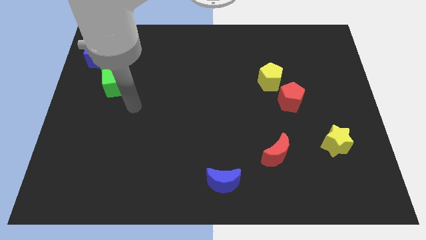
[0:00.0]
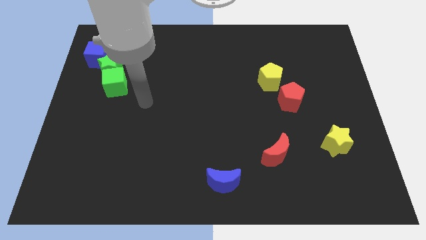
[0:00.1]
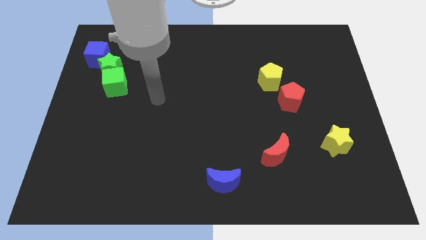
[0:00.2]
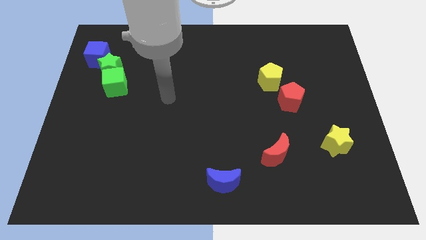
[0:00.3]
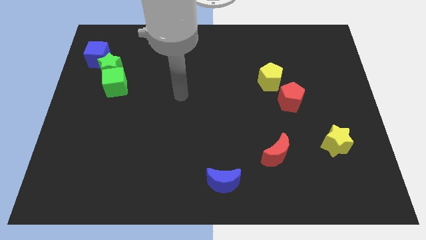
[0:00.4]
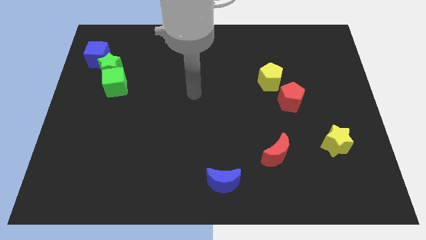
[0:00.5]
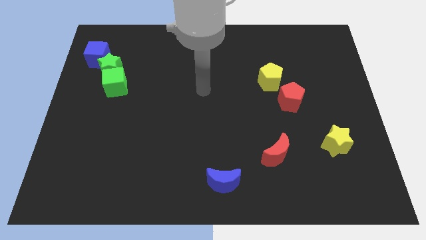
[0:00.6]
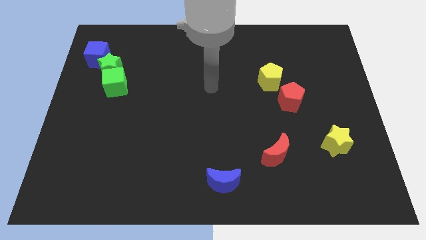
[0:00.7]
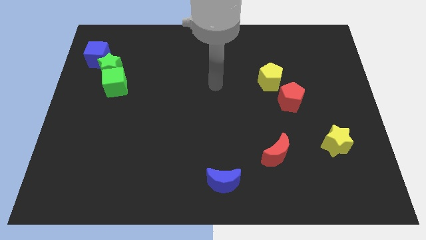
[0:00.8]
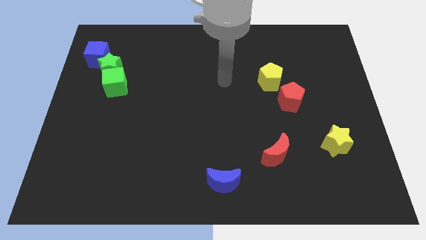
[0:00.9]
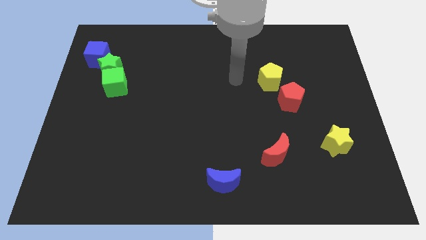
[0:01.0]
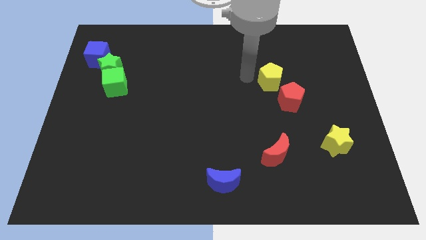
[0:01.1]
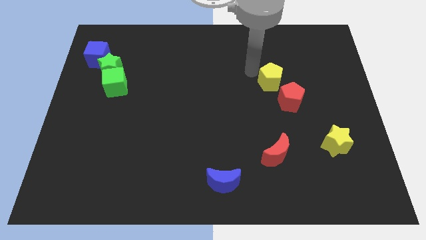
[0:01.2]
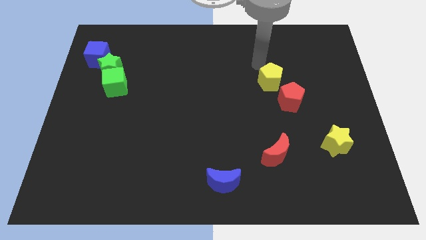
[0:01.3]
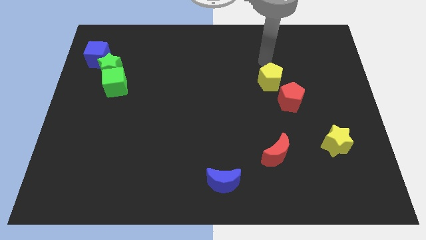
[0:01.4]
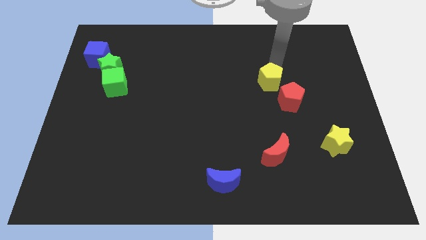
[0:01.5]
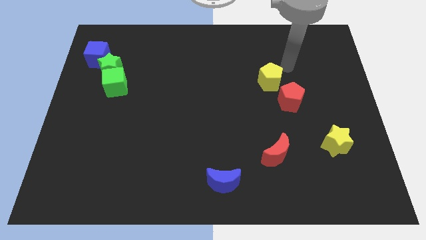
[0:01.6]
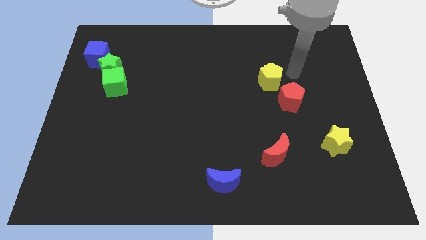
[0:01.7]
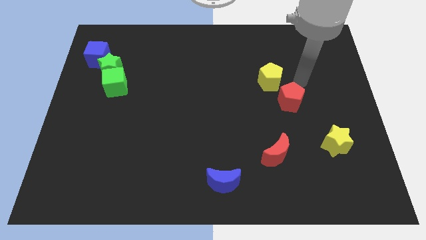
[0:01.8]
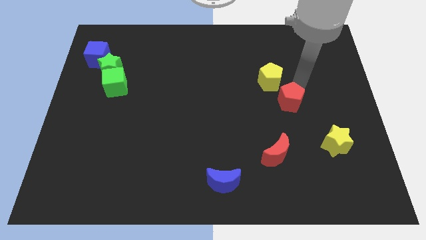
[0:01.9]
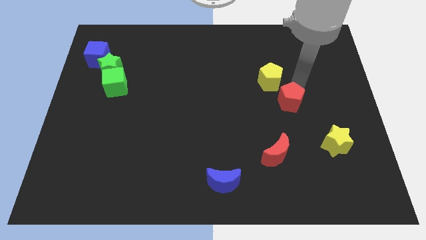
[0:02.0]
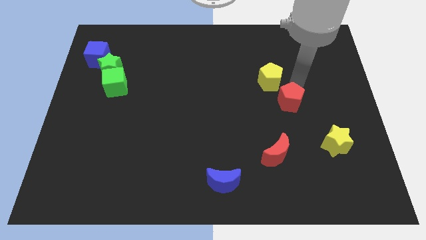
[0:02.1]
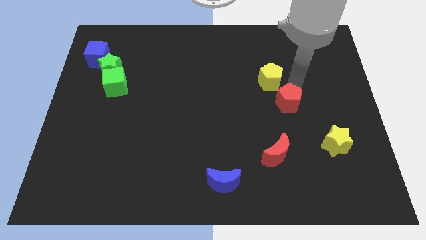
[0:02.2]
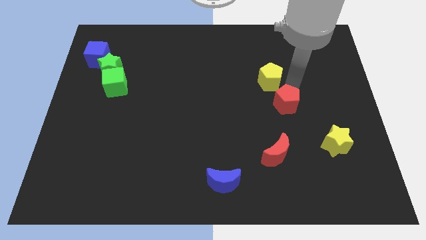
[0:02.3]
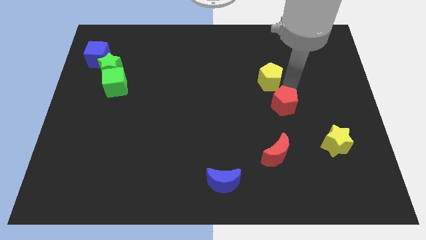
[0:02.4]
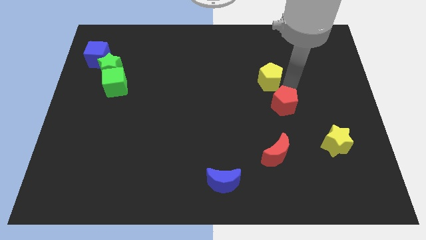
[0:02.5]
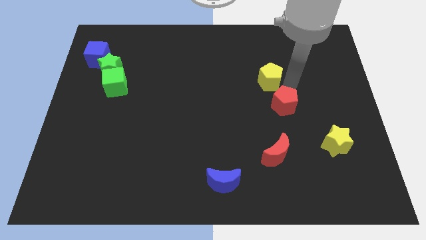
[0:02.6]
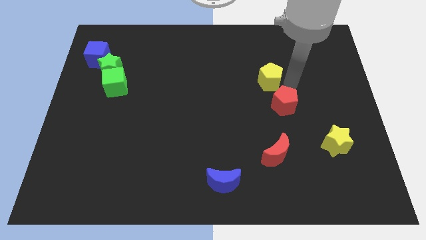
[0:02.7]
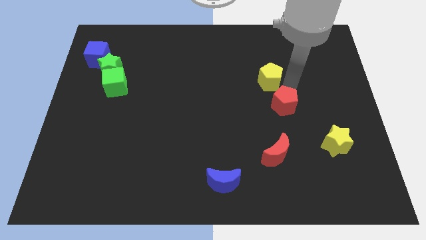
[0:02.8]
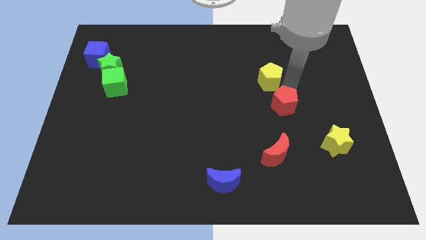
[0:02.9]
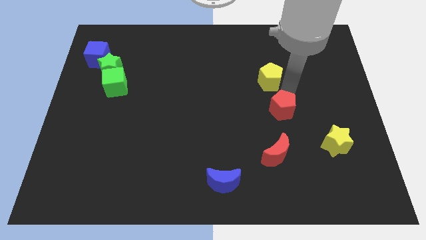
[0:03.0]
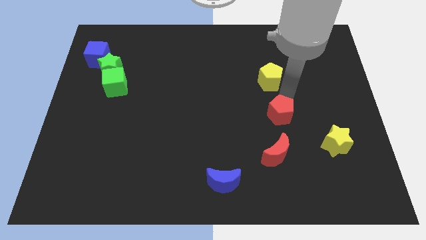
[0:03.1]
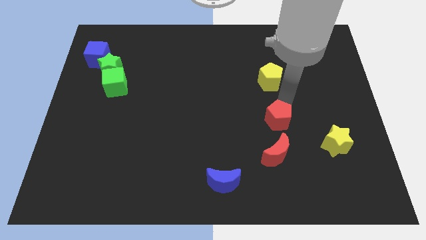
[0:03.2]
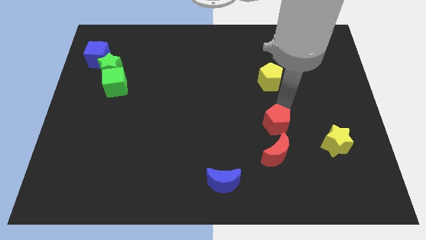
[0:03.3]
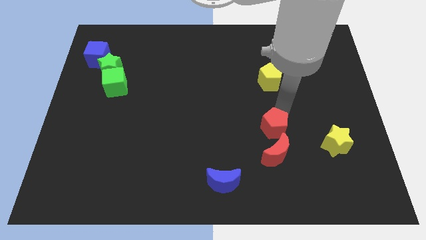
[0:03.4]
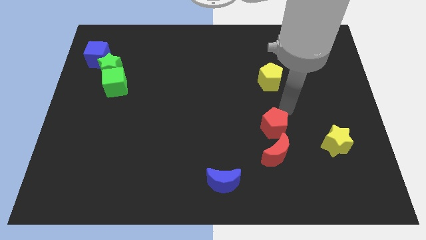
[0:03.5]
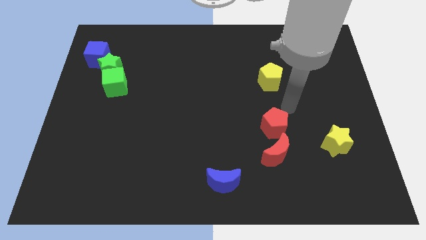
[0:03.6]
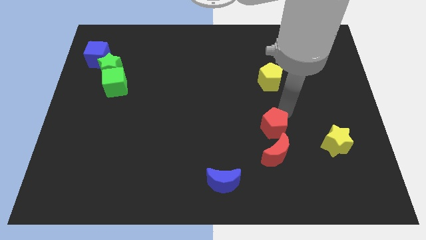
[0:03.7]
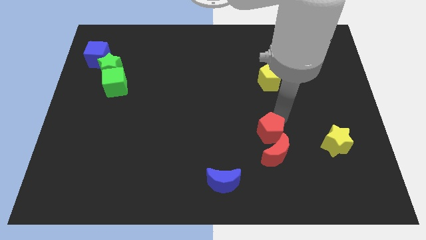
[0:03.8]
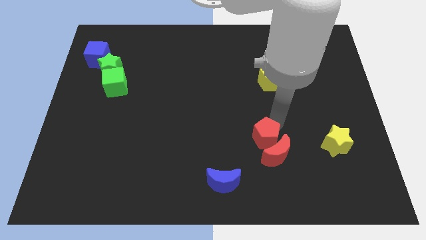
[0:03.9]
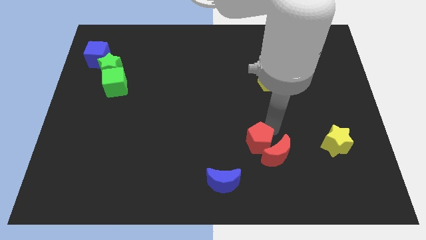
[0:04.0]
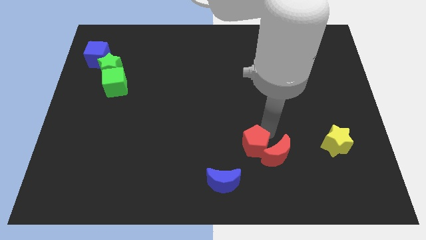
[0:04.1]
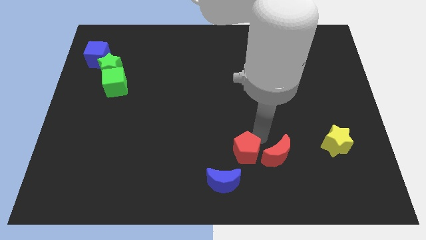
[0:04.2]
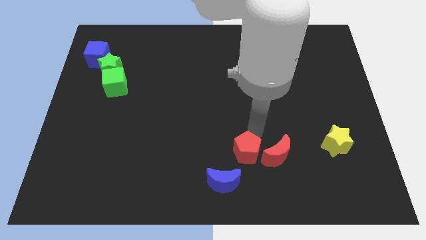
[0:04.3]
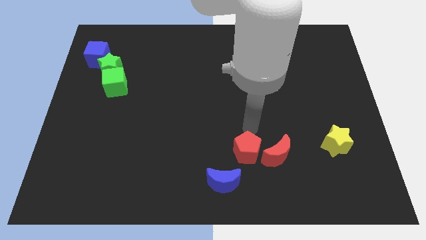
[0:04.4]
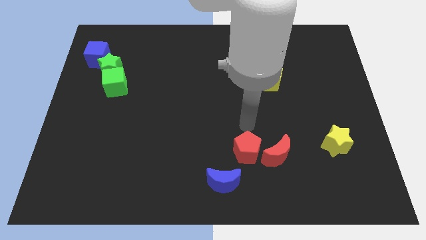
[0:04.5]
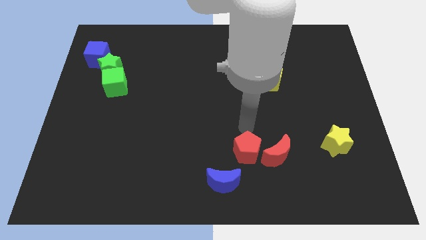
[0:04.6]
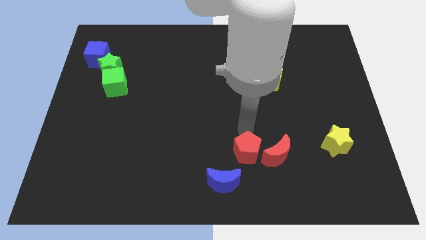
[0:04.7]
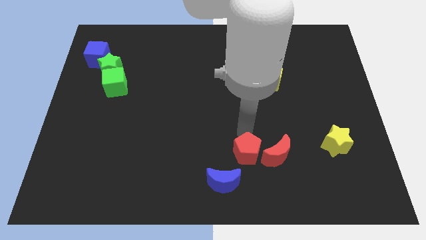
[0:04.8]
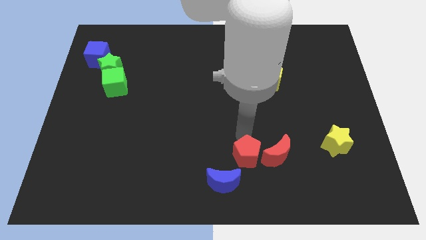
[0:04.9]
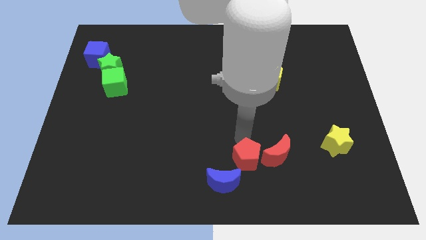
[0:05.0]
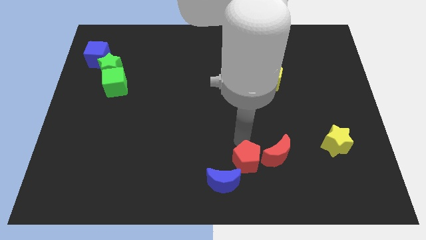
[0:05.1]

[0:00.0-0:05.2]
move the red pentagon to the bottom

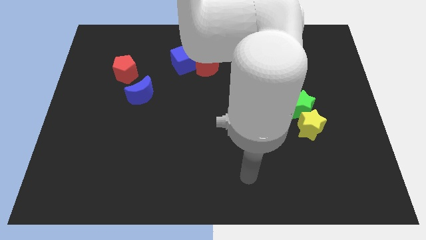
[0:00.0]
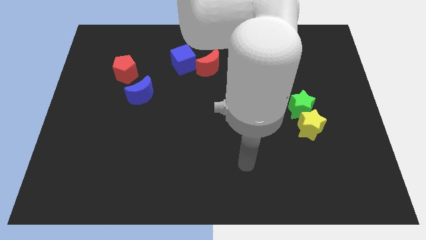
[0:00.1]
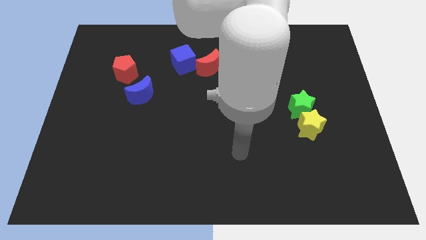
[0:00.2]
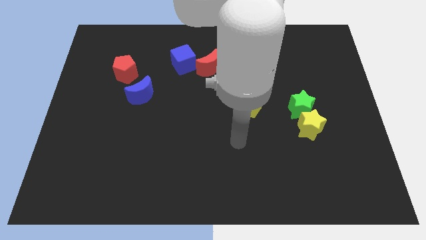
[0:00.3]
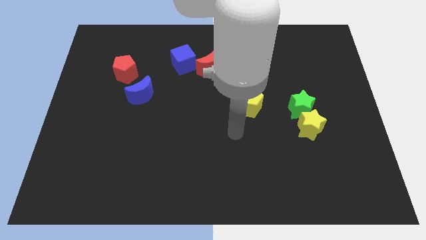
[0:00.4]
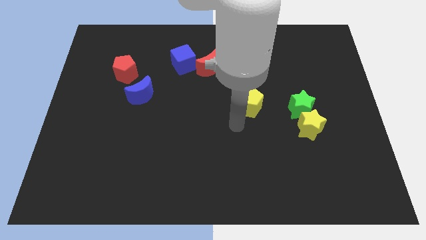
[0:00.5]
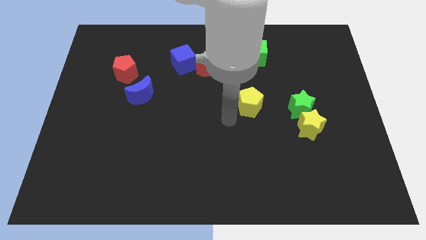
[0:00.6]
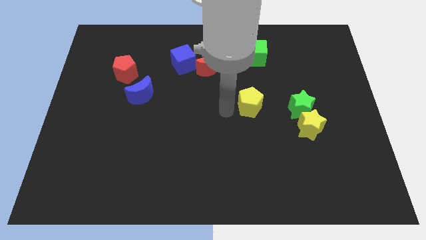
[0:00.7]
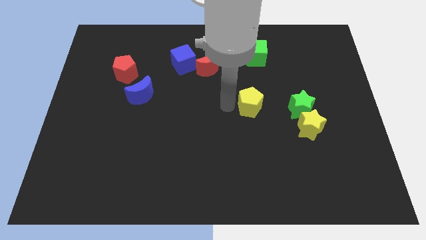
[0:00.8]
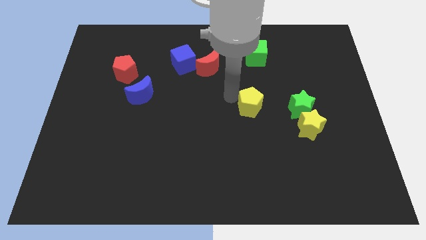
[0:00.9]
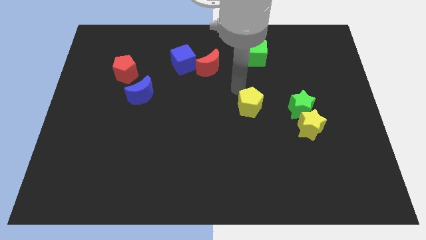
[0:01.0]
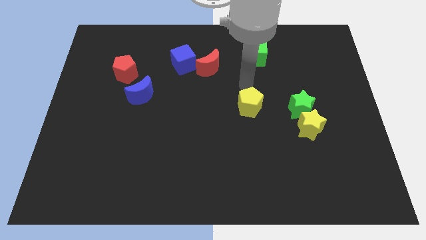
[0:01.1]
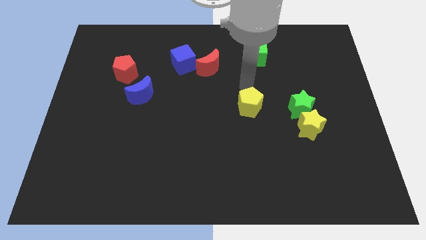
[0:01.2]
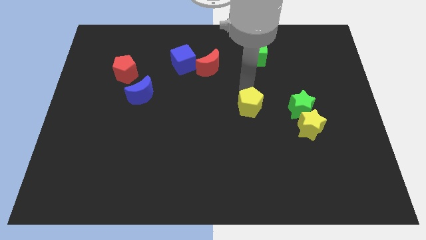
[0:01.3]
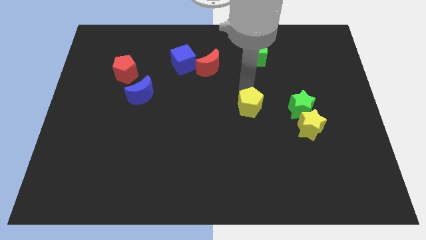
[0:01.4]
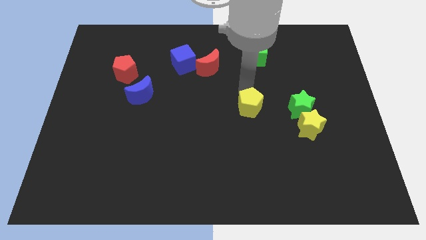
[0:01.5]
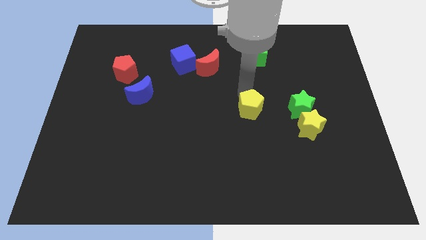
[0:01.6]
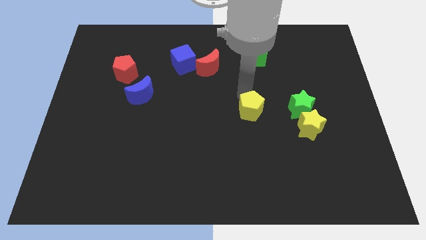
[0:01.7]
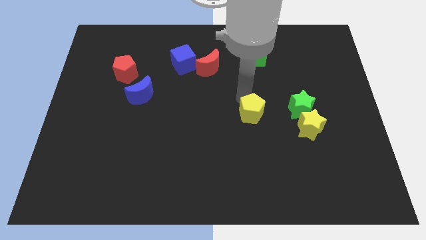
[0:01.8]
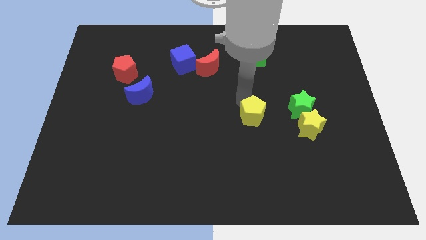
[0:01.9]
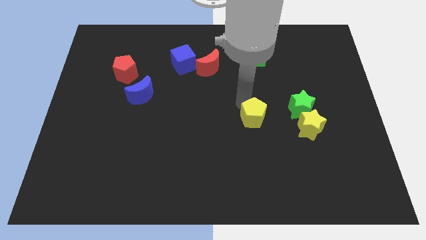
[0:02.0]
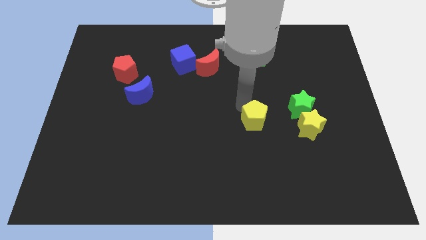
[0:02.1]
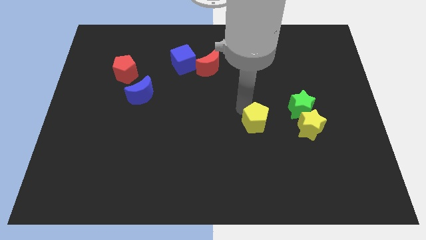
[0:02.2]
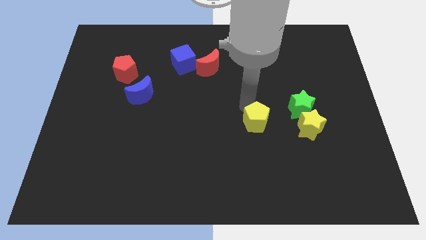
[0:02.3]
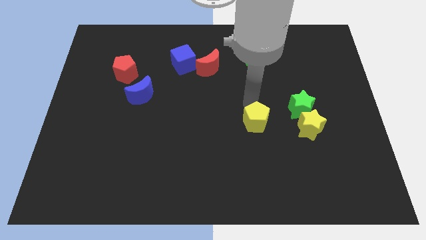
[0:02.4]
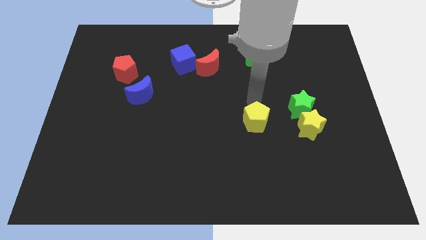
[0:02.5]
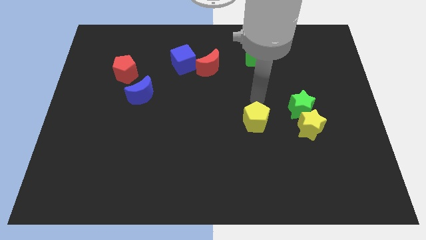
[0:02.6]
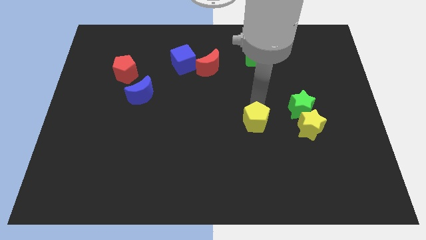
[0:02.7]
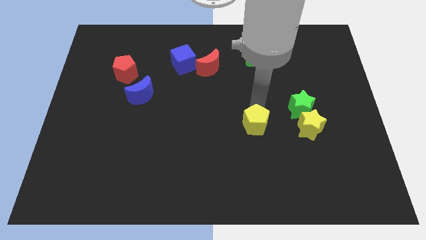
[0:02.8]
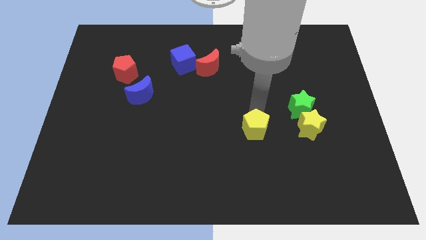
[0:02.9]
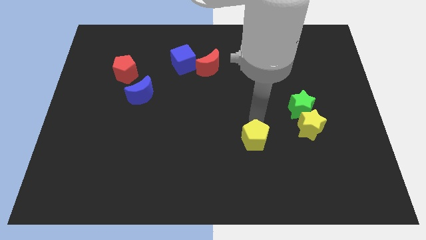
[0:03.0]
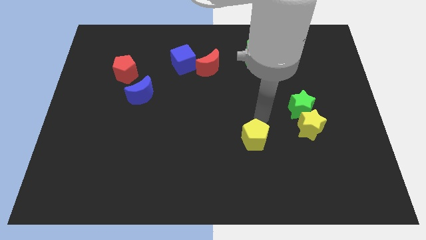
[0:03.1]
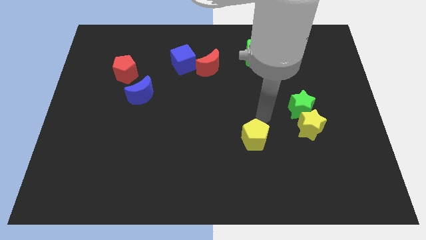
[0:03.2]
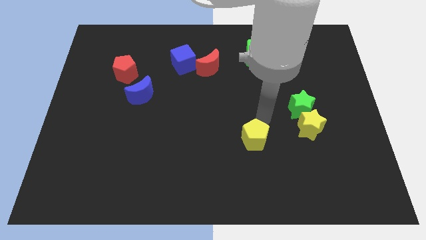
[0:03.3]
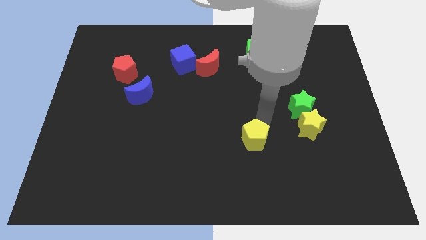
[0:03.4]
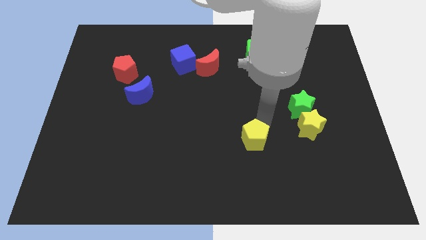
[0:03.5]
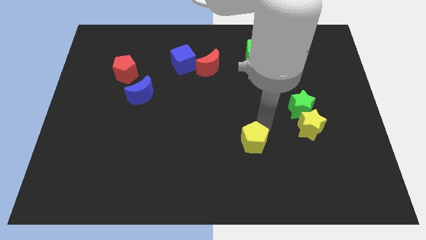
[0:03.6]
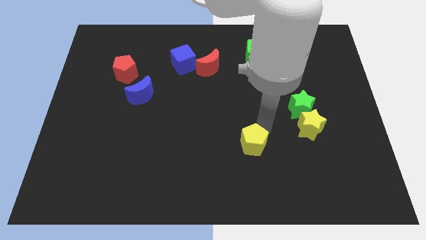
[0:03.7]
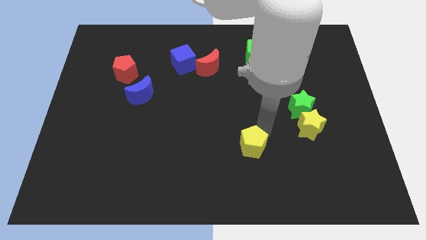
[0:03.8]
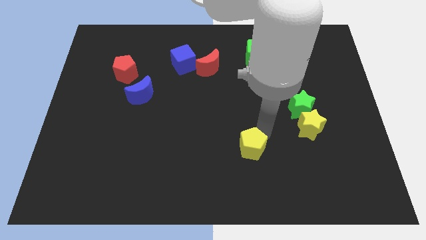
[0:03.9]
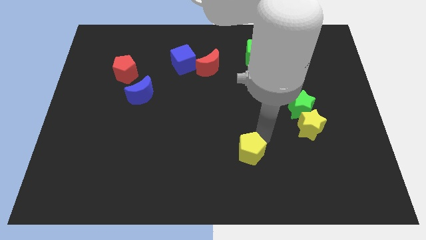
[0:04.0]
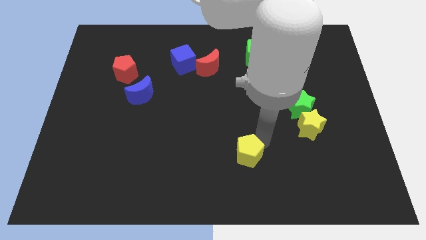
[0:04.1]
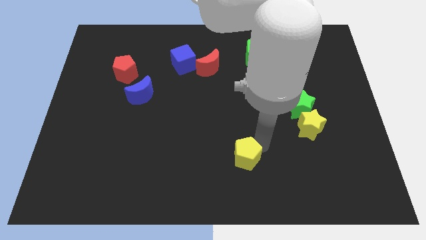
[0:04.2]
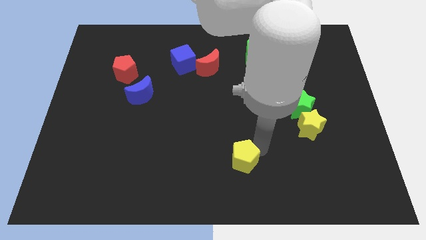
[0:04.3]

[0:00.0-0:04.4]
move the yellow pentagon to the bottom
